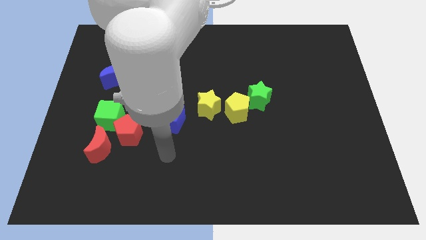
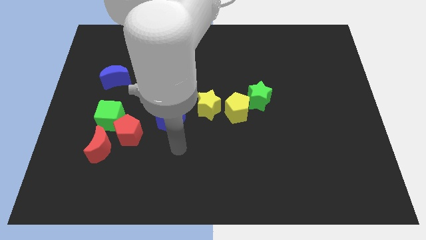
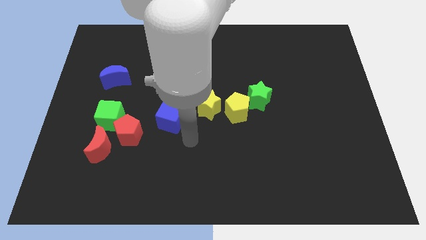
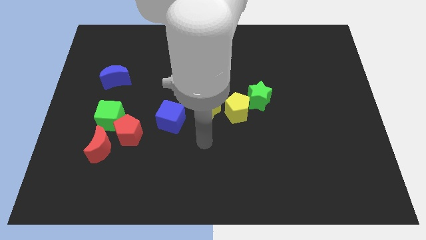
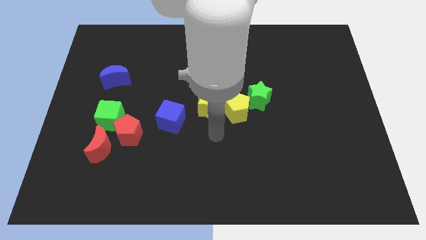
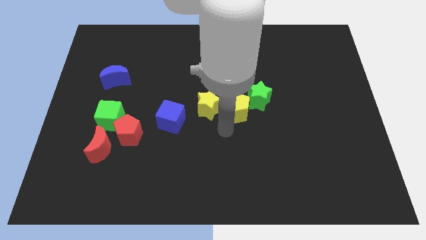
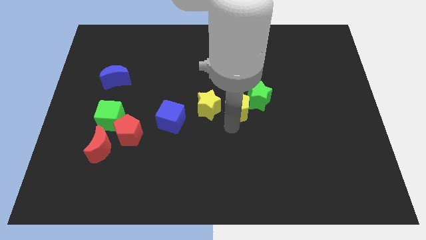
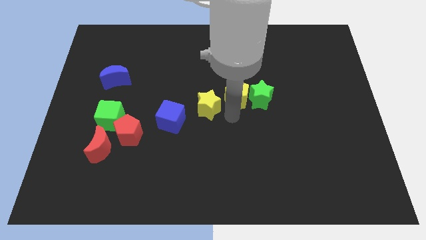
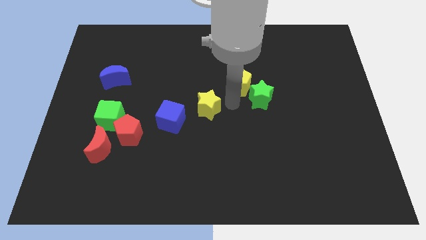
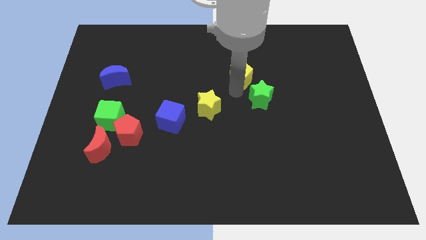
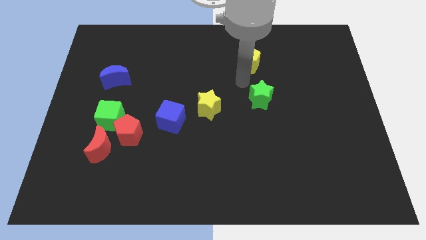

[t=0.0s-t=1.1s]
move the green star away from the yellow pentagon

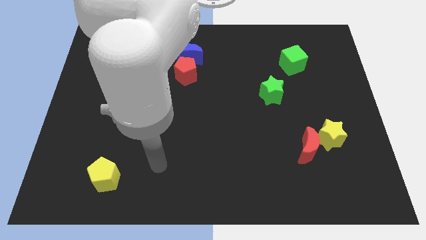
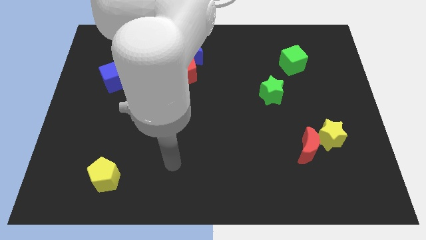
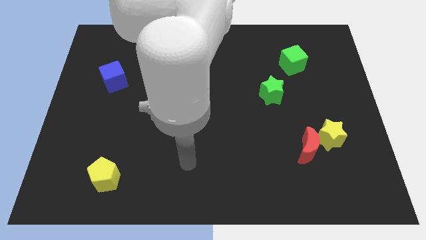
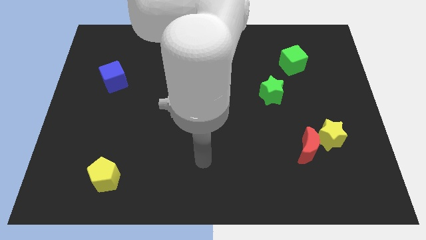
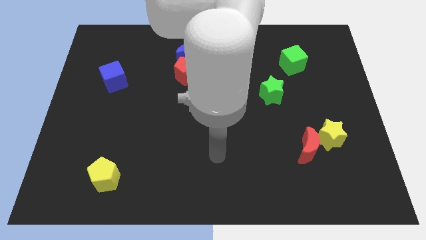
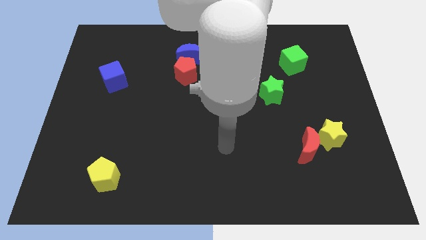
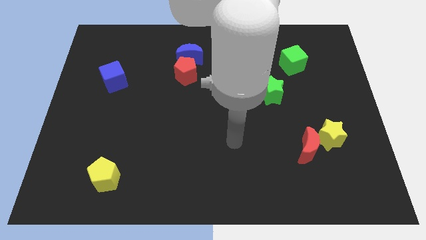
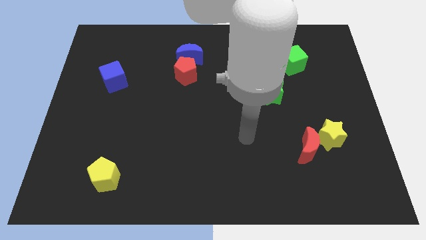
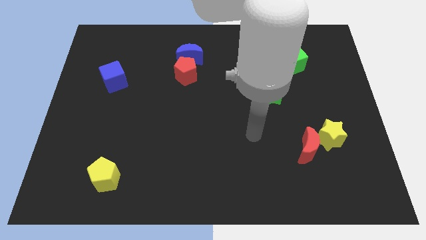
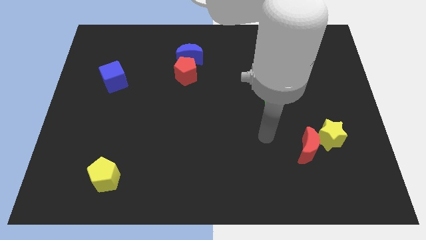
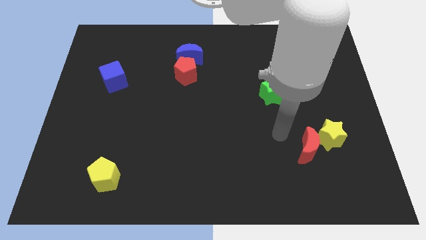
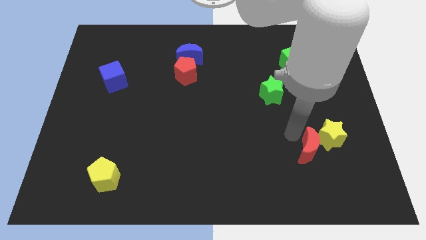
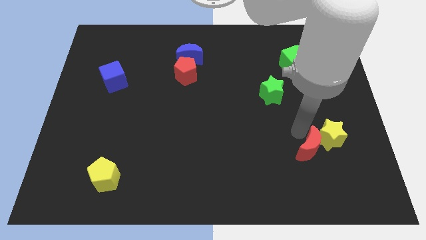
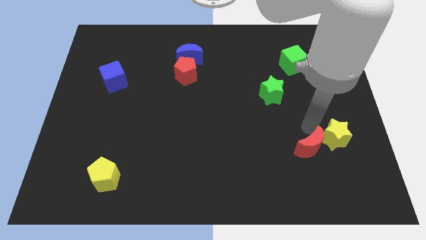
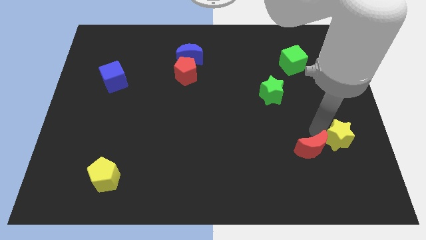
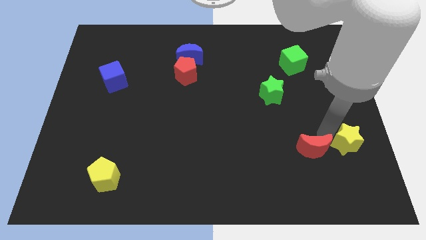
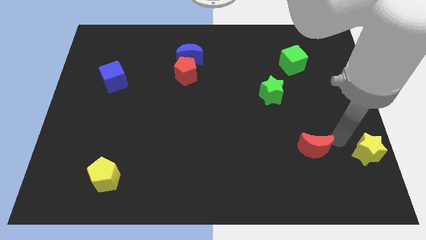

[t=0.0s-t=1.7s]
separate the red moon from the yellow star

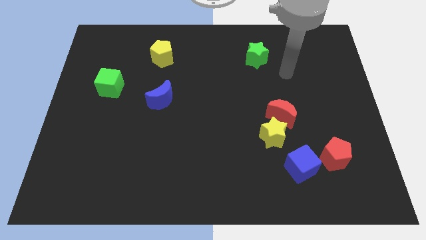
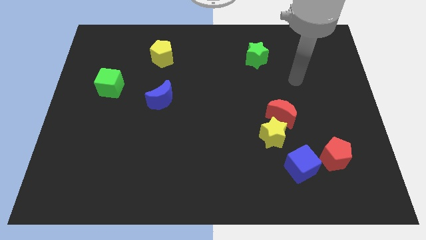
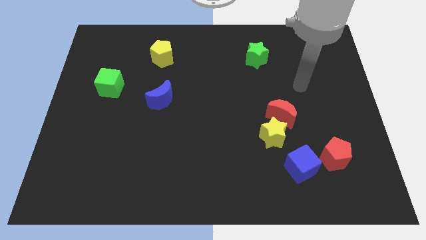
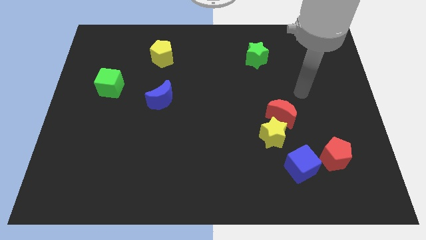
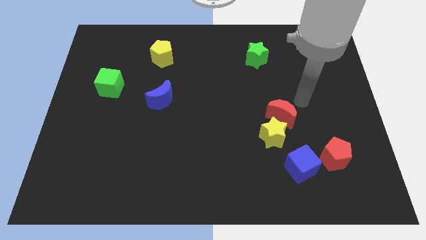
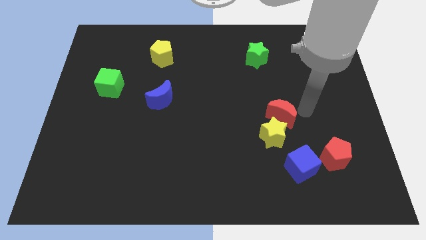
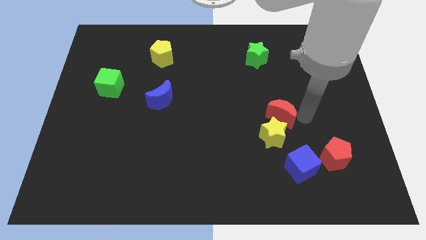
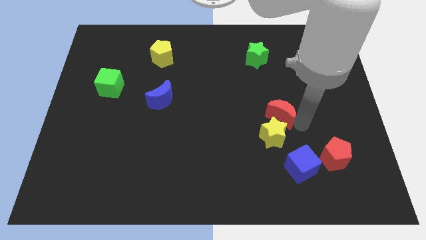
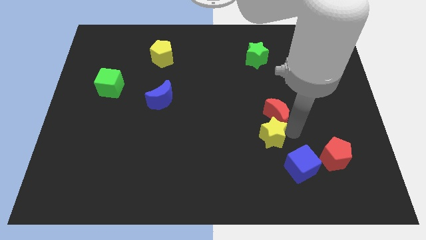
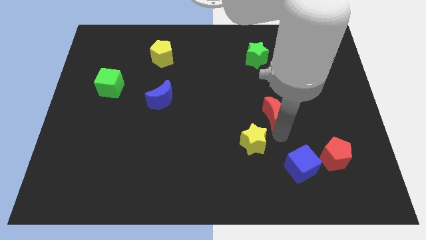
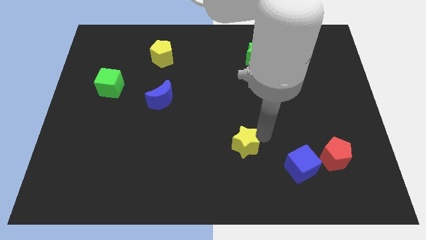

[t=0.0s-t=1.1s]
move the red moon away from the yellow star

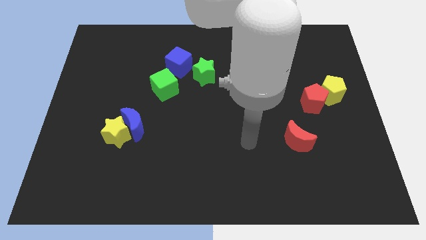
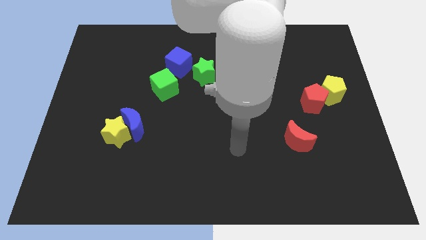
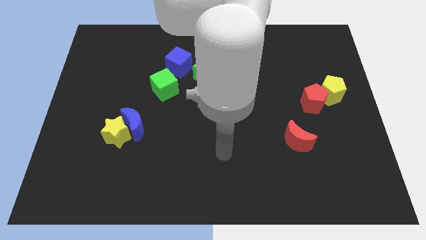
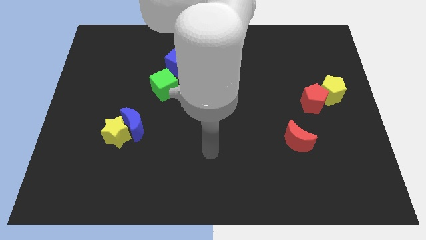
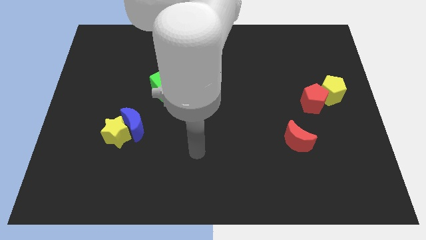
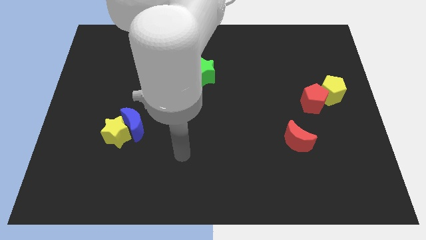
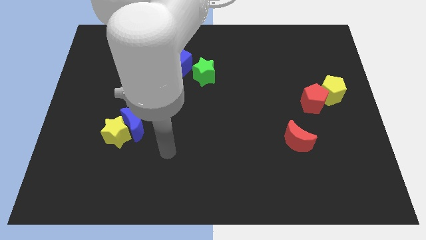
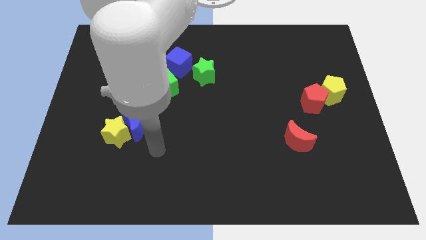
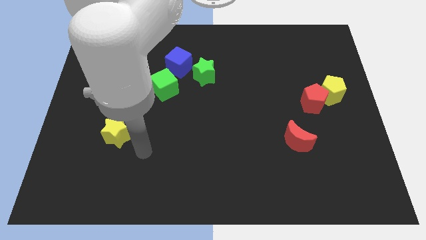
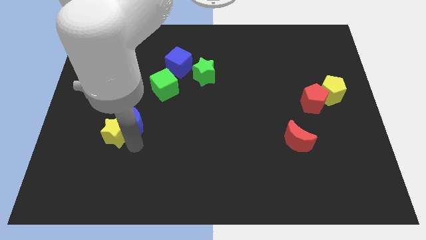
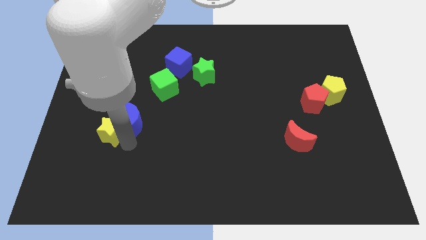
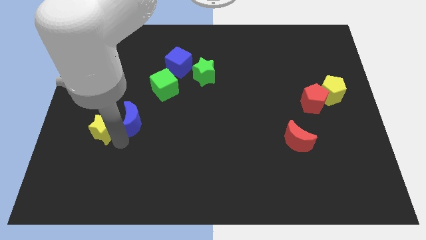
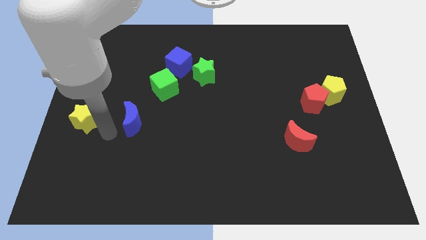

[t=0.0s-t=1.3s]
move the blue moon away from the yellow star

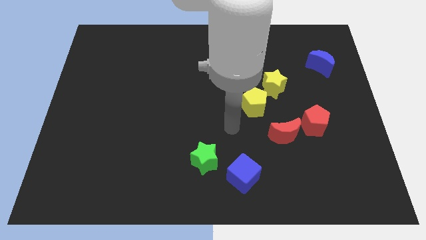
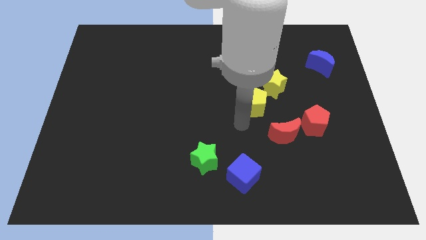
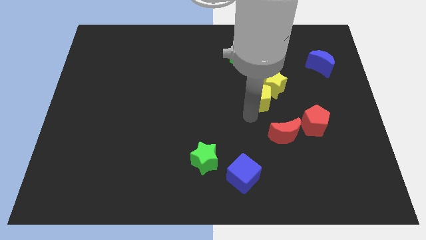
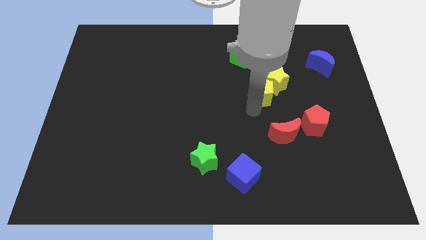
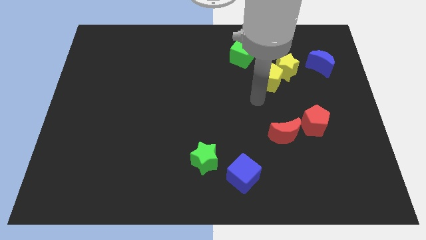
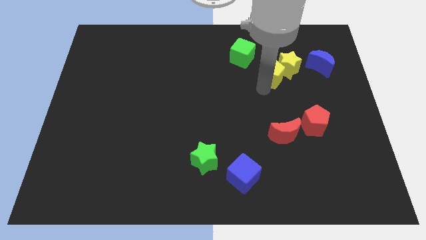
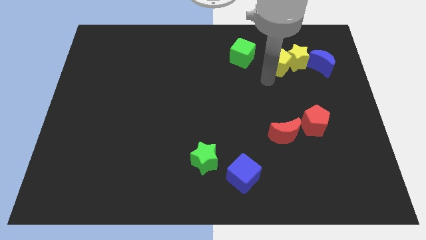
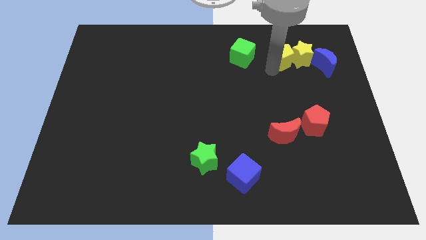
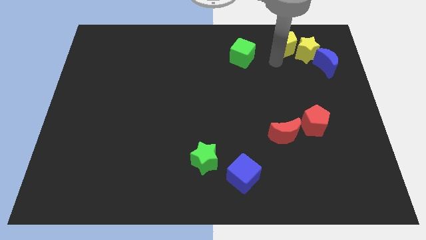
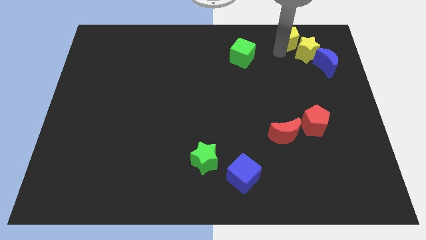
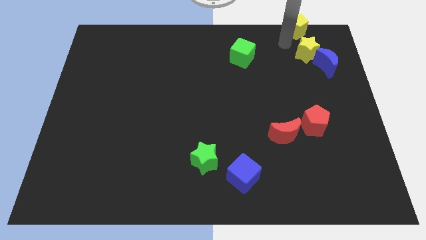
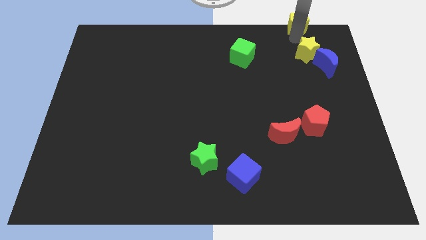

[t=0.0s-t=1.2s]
separate the yellow star from the yellow pentagon

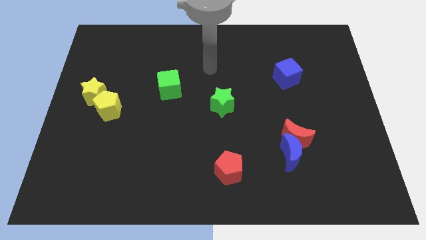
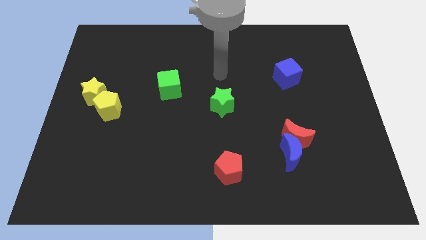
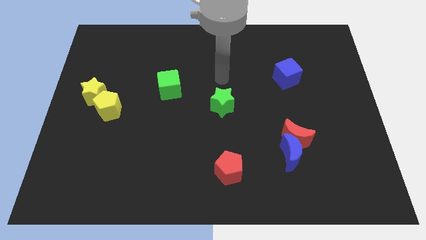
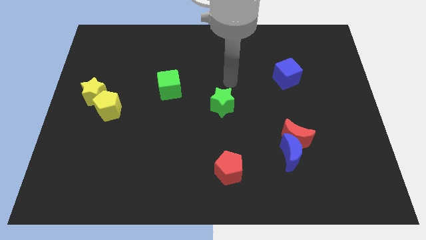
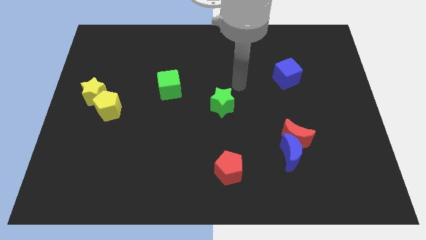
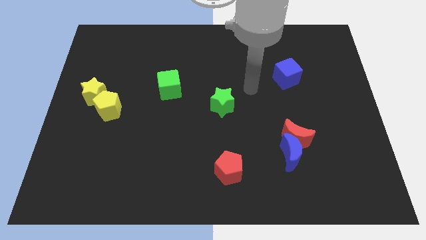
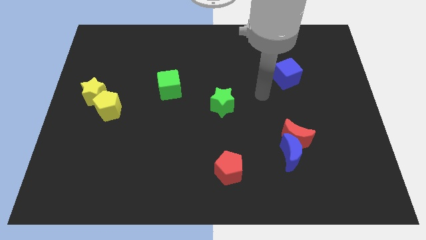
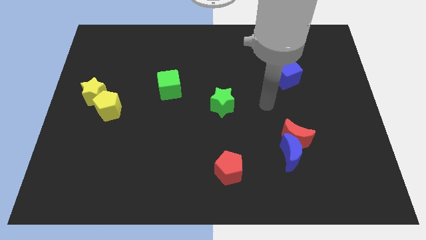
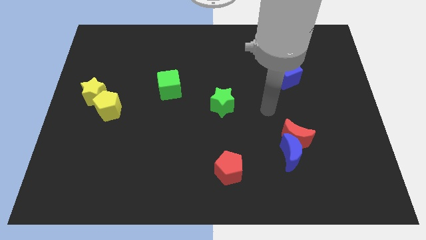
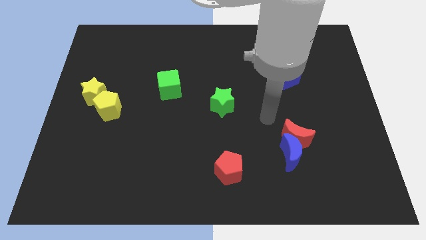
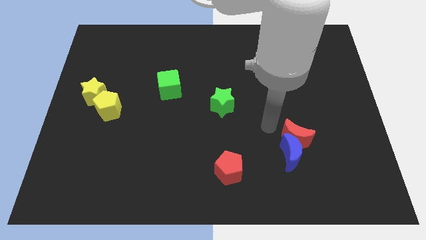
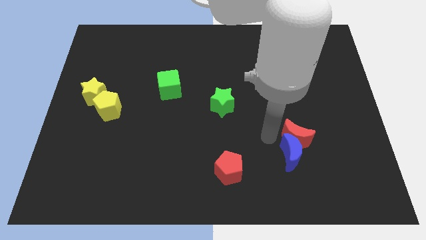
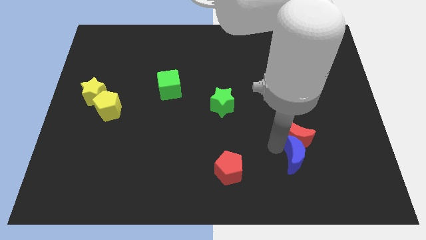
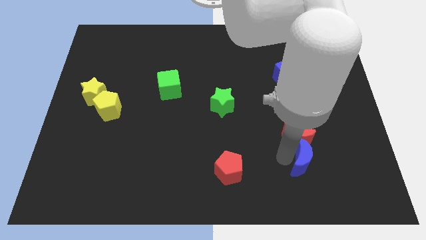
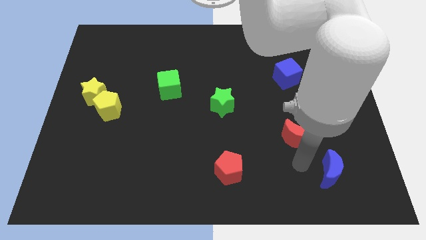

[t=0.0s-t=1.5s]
move the red moon away from the blue moon

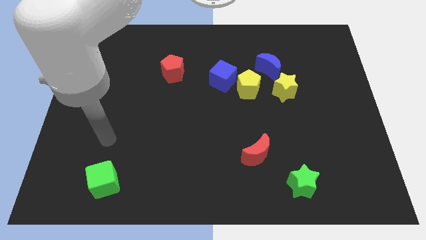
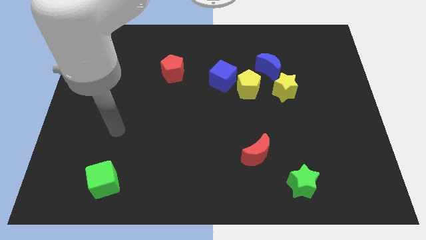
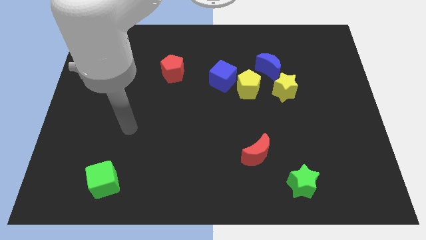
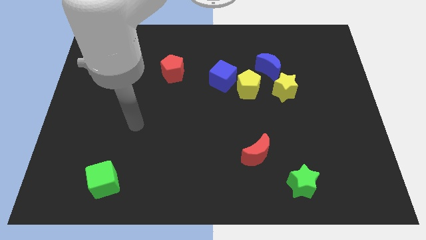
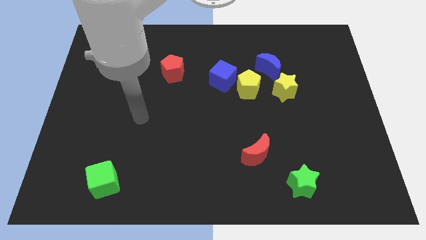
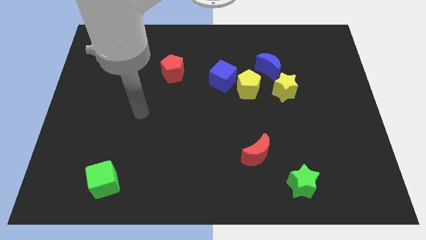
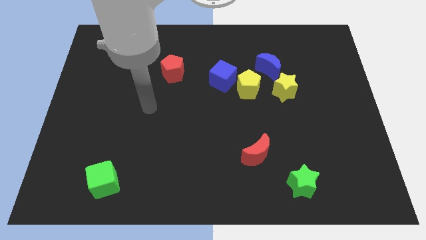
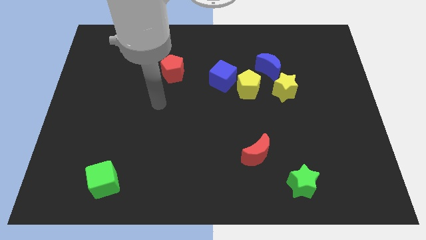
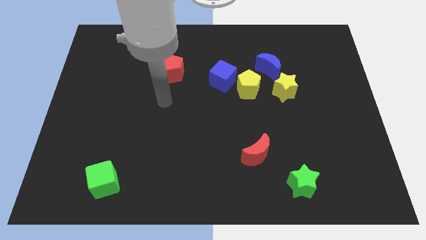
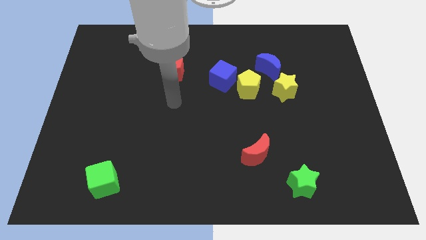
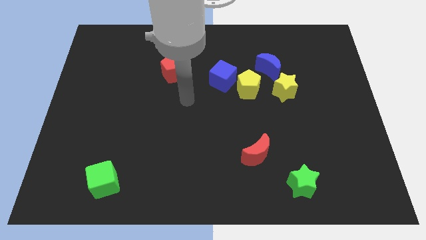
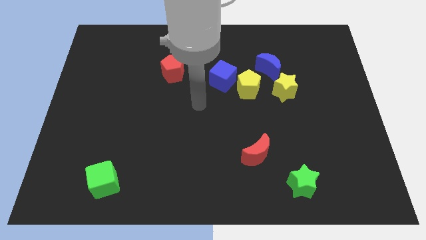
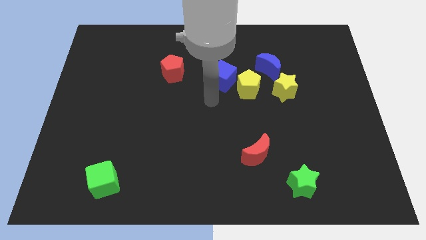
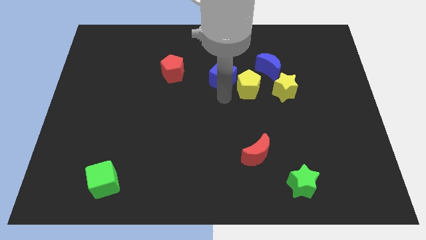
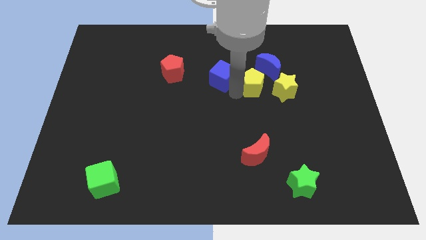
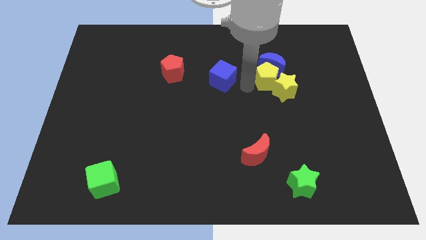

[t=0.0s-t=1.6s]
move the blue cube away from the yellow pentagon
